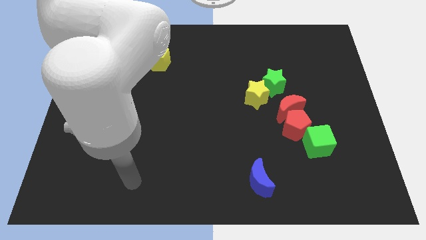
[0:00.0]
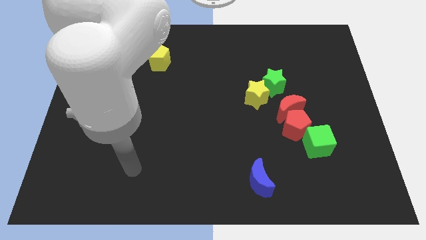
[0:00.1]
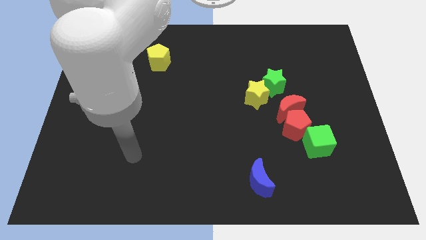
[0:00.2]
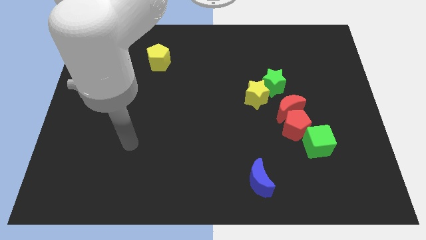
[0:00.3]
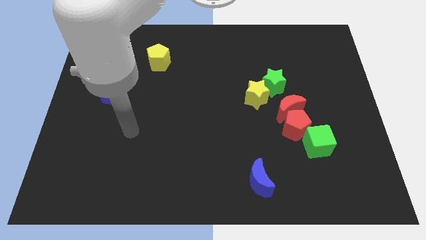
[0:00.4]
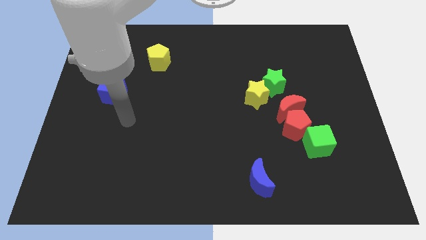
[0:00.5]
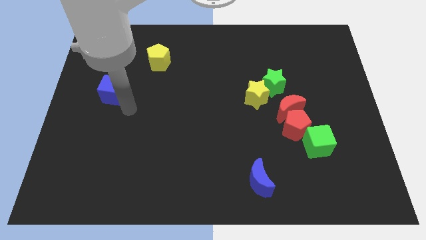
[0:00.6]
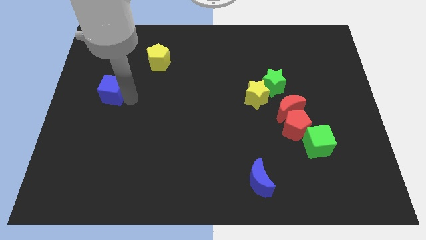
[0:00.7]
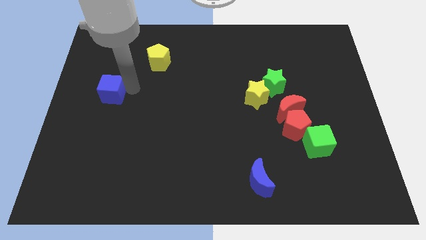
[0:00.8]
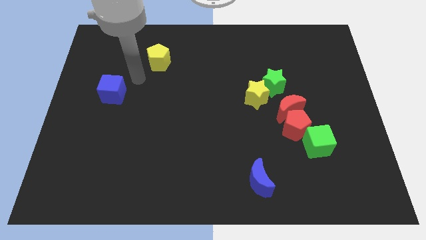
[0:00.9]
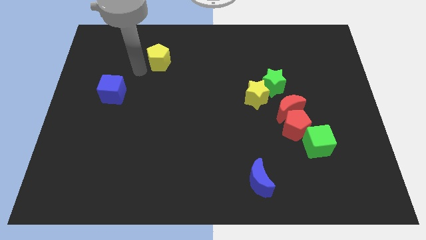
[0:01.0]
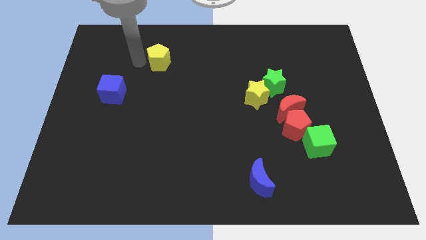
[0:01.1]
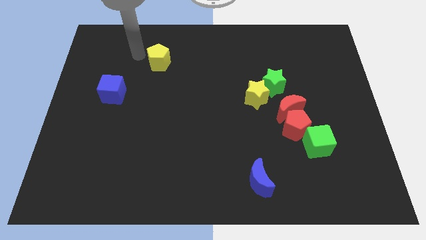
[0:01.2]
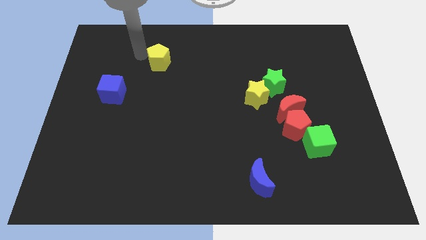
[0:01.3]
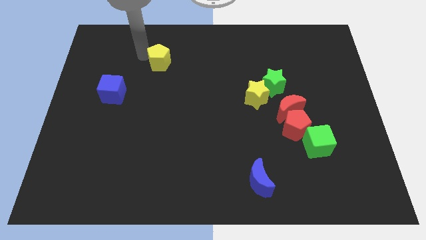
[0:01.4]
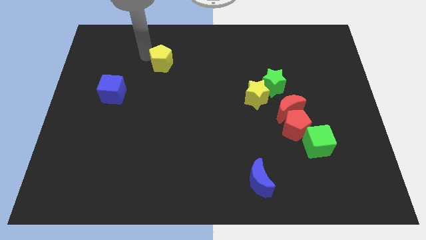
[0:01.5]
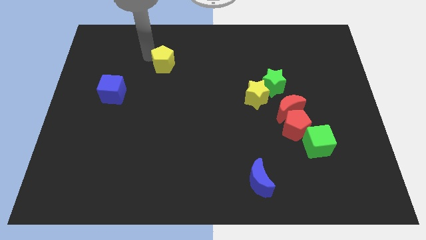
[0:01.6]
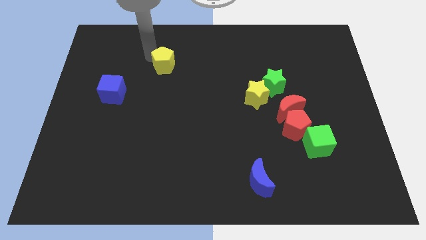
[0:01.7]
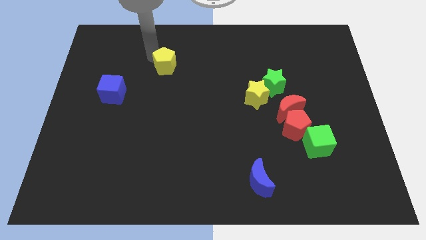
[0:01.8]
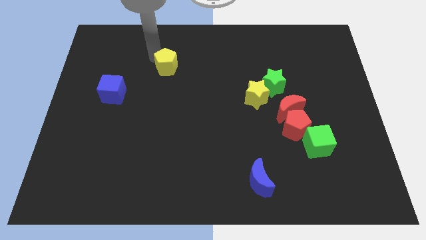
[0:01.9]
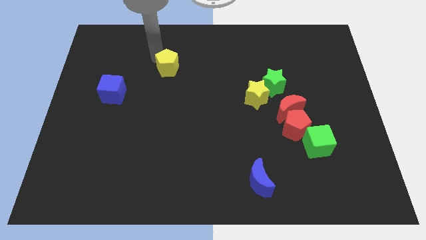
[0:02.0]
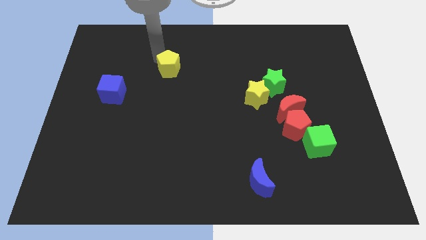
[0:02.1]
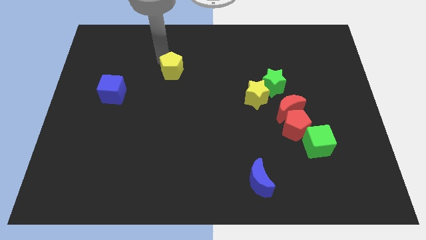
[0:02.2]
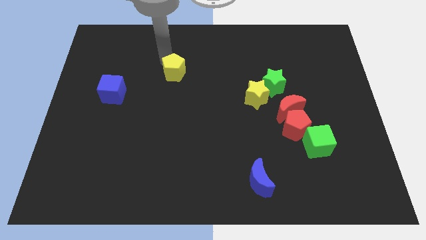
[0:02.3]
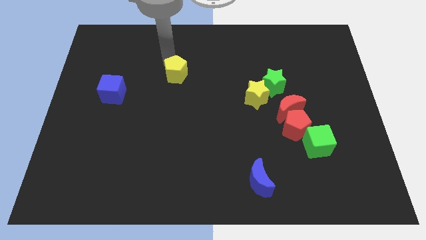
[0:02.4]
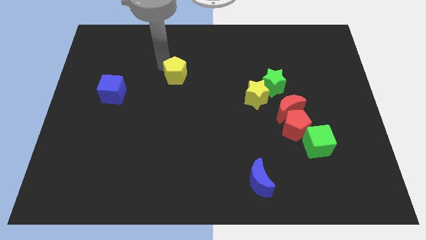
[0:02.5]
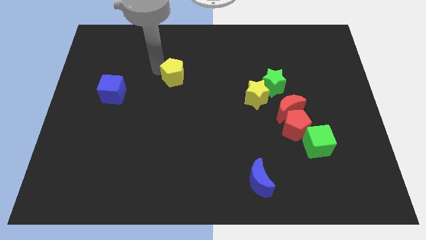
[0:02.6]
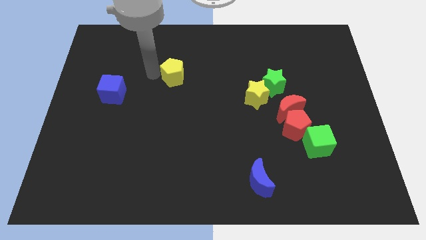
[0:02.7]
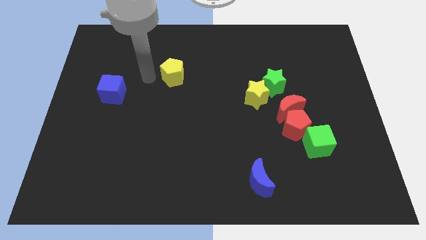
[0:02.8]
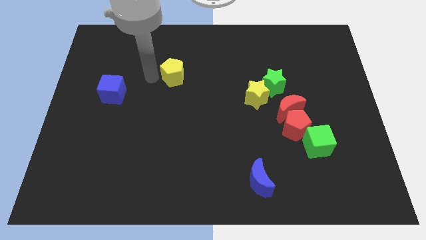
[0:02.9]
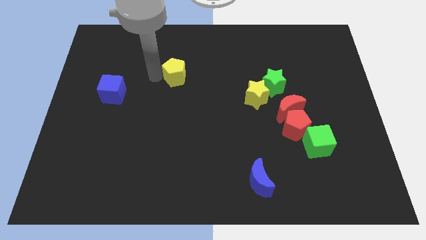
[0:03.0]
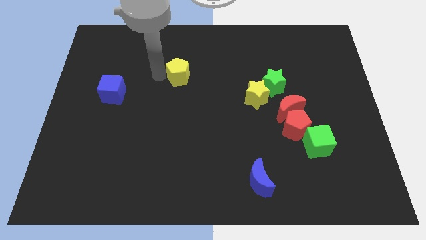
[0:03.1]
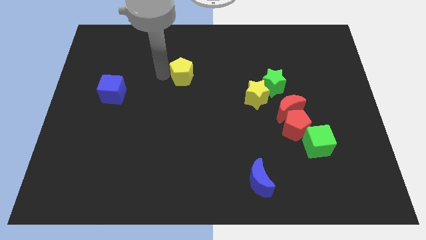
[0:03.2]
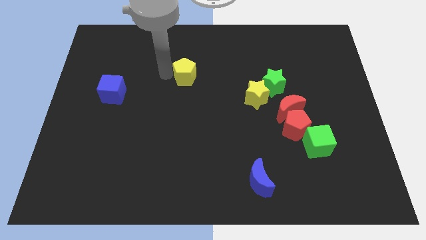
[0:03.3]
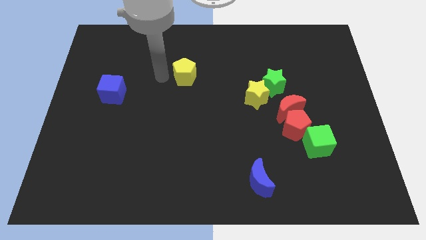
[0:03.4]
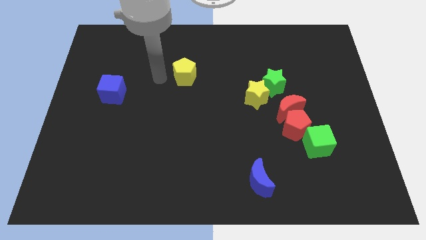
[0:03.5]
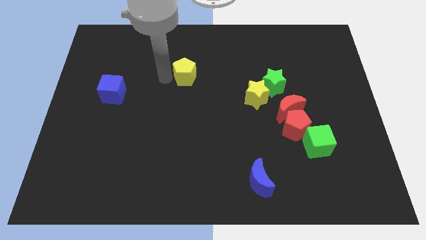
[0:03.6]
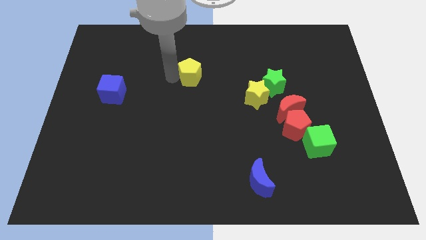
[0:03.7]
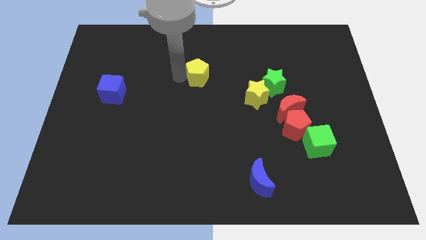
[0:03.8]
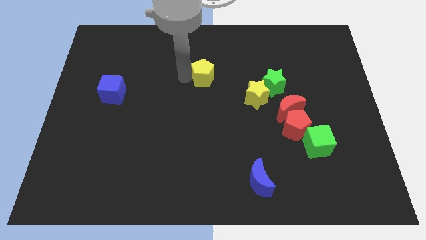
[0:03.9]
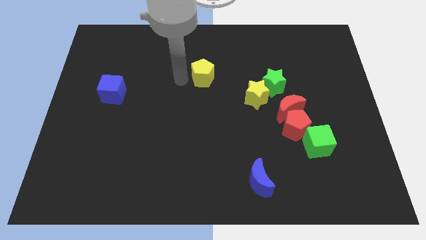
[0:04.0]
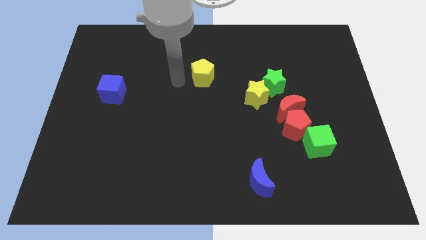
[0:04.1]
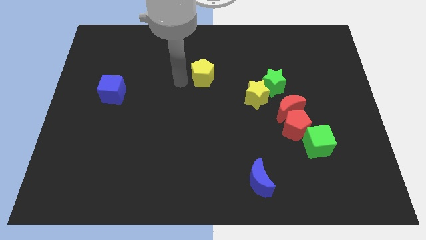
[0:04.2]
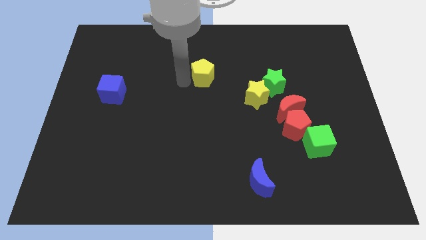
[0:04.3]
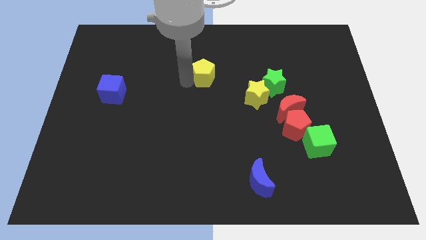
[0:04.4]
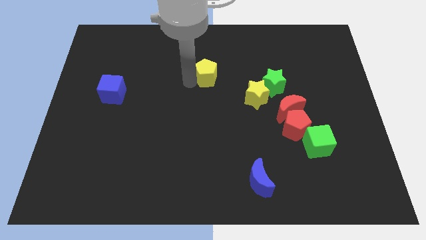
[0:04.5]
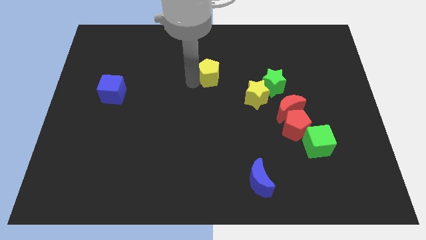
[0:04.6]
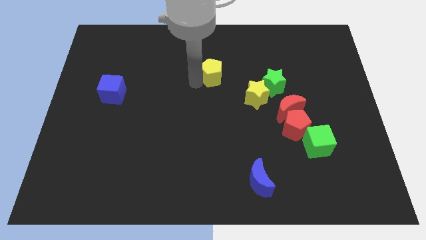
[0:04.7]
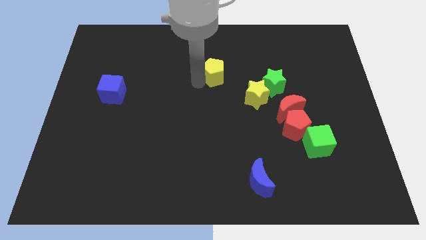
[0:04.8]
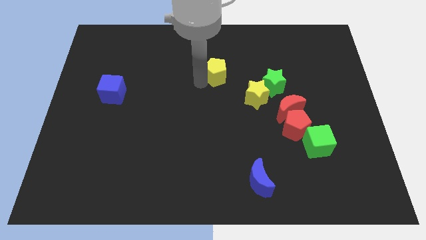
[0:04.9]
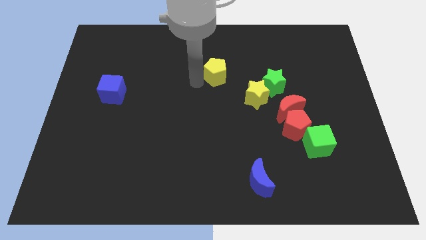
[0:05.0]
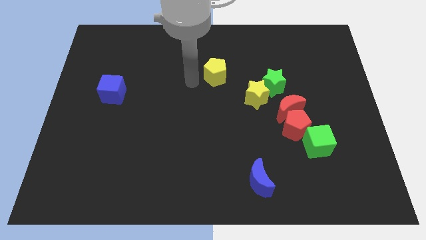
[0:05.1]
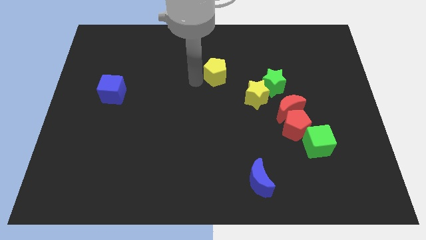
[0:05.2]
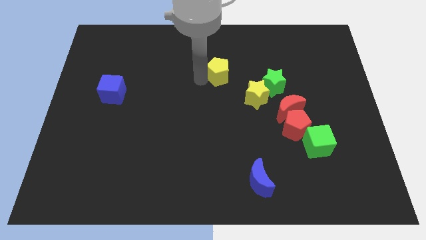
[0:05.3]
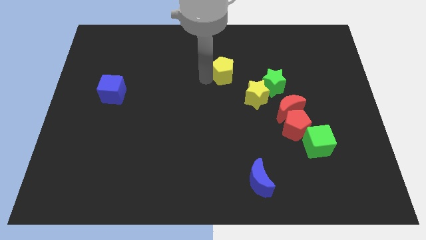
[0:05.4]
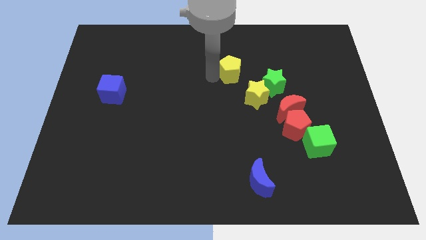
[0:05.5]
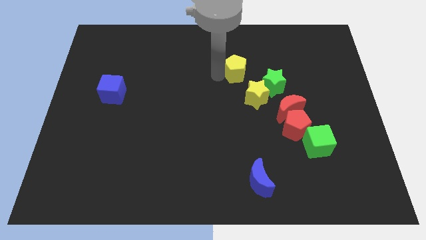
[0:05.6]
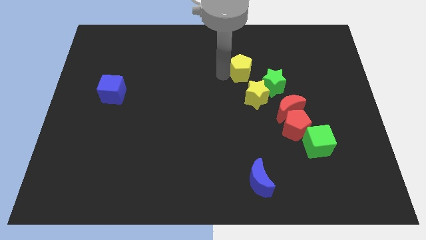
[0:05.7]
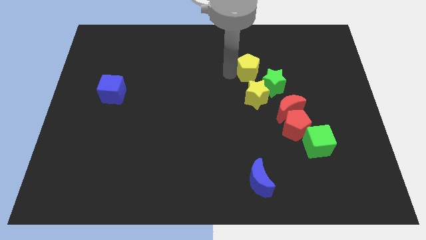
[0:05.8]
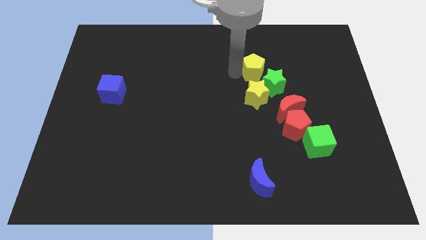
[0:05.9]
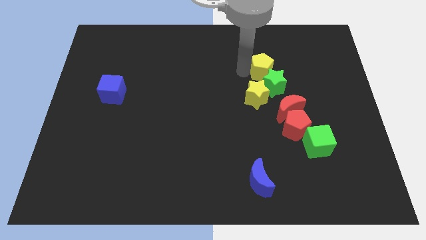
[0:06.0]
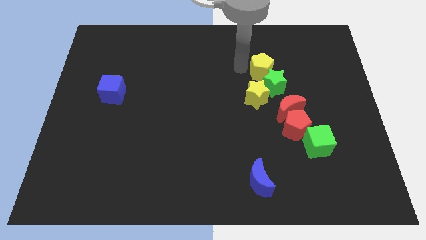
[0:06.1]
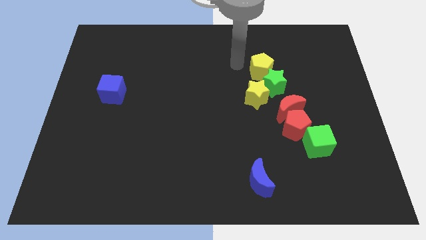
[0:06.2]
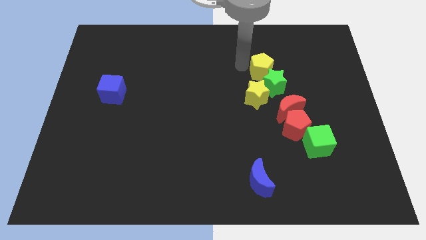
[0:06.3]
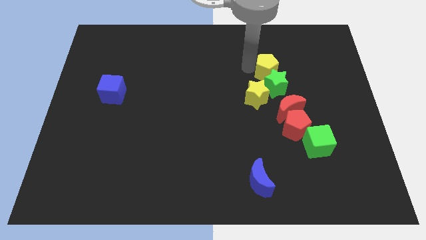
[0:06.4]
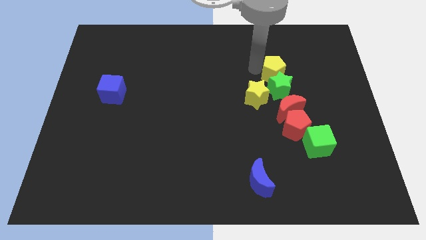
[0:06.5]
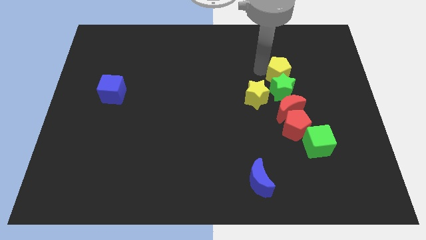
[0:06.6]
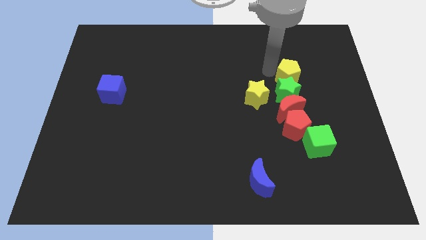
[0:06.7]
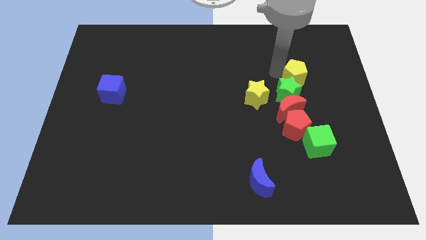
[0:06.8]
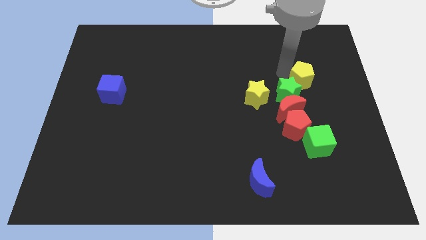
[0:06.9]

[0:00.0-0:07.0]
move the yellow pentagon to the top right side of the red moon

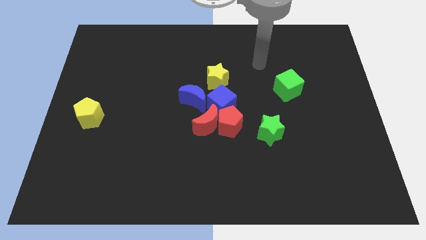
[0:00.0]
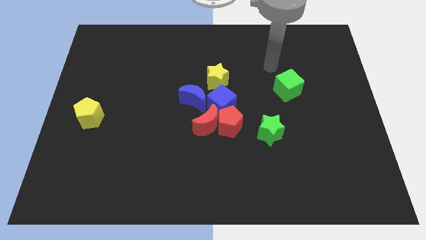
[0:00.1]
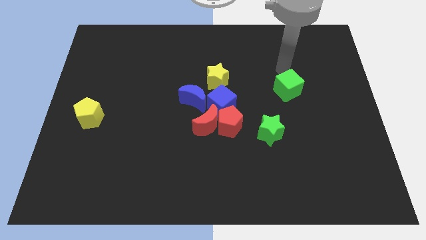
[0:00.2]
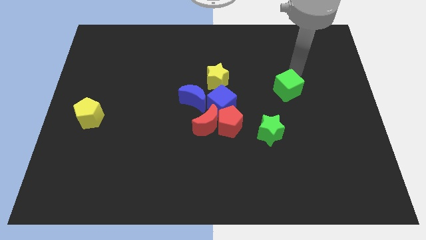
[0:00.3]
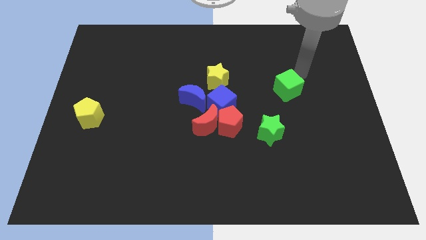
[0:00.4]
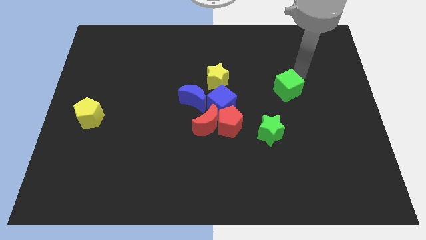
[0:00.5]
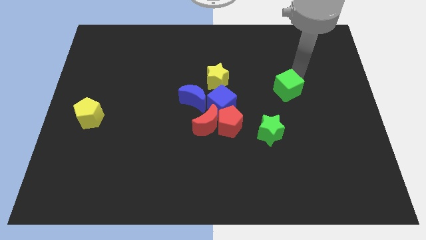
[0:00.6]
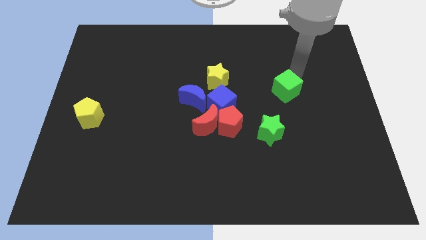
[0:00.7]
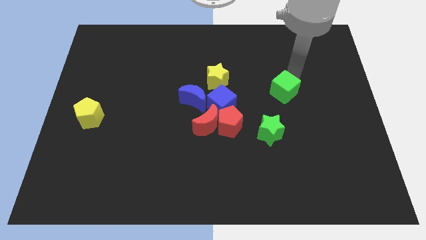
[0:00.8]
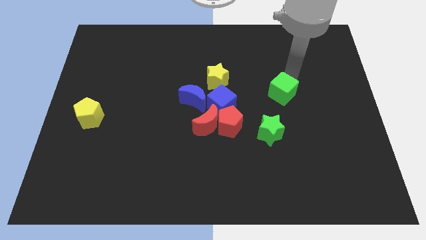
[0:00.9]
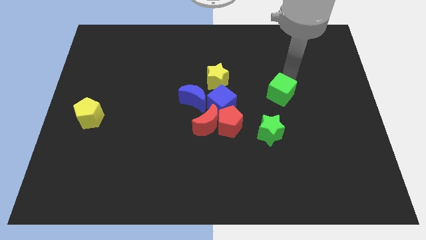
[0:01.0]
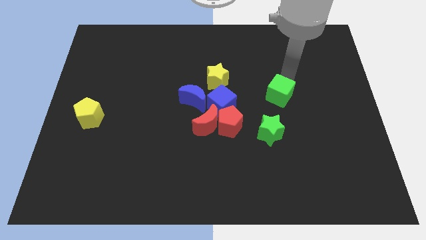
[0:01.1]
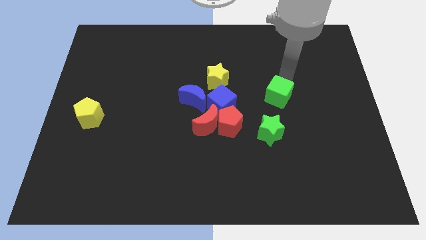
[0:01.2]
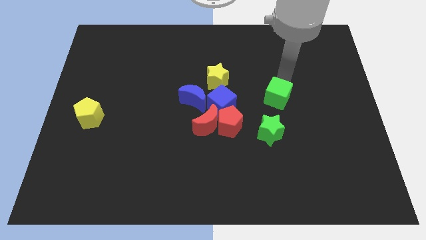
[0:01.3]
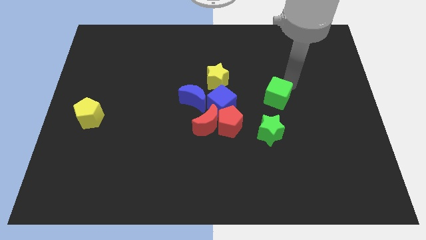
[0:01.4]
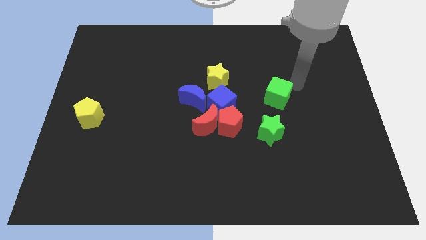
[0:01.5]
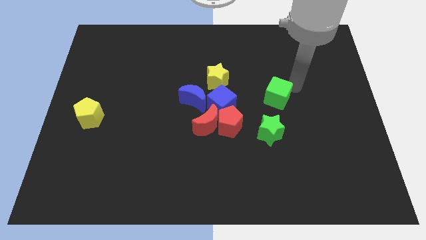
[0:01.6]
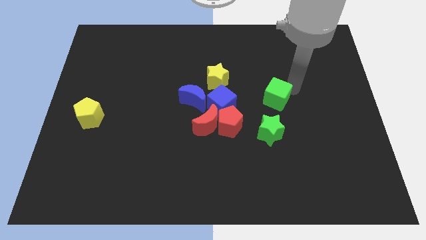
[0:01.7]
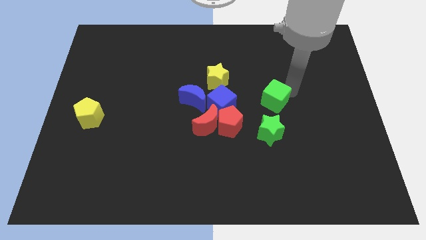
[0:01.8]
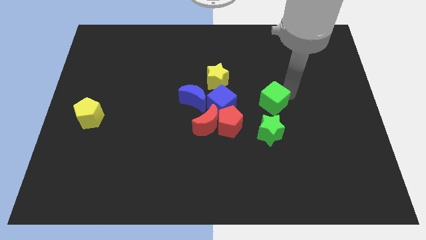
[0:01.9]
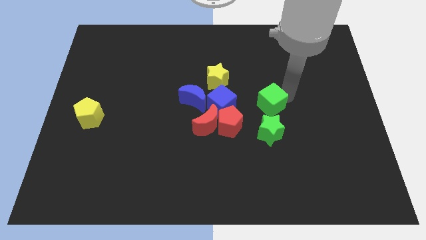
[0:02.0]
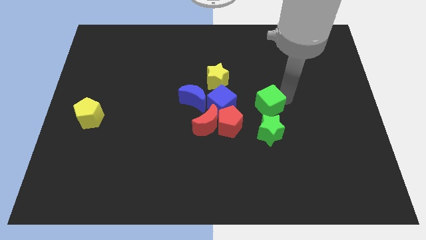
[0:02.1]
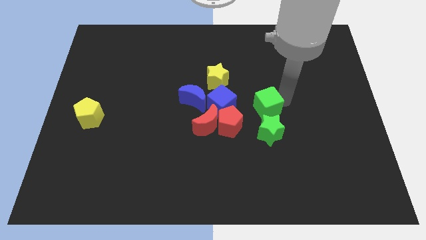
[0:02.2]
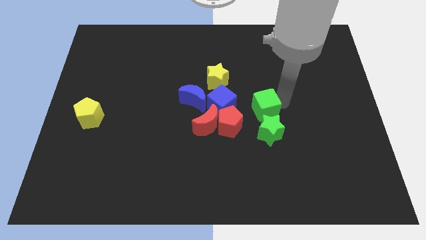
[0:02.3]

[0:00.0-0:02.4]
move the green cube to the top left side of the green star
